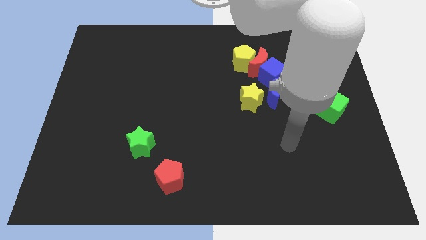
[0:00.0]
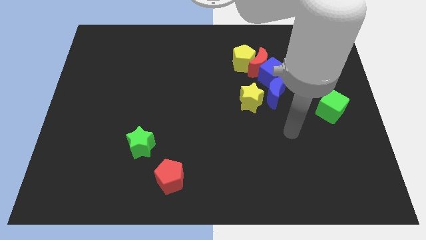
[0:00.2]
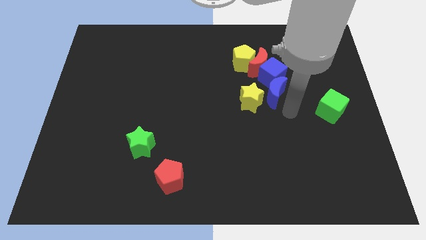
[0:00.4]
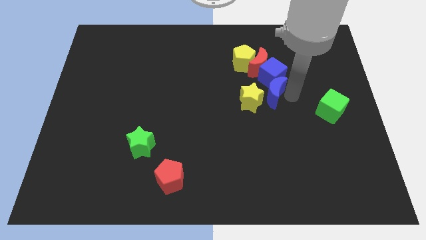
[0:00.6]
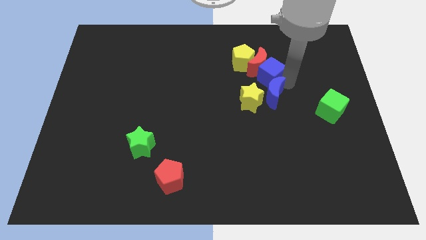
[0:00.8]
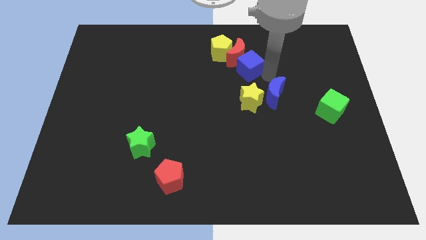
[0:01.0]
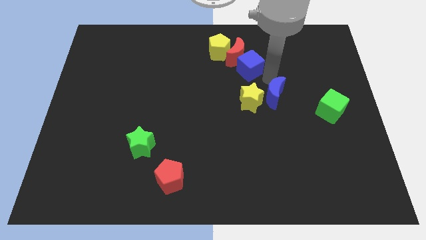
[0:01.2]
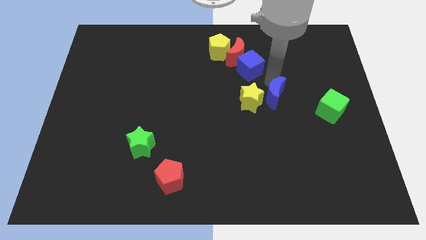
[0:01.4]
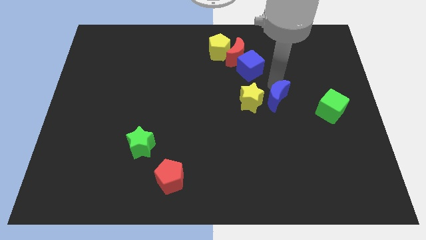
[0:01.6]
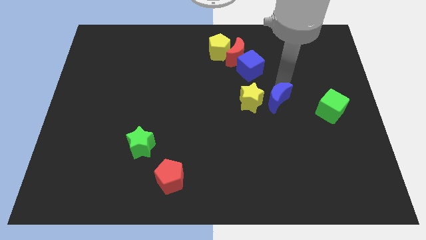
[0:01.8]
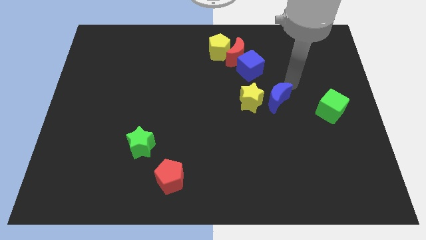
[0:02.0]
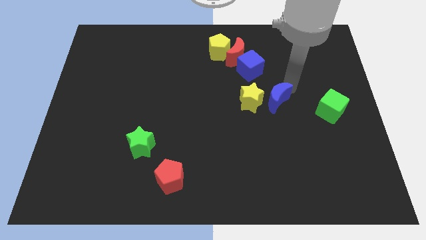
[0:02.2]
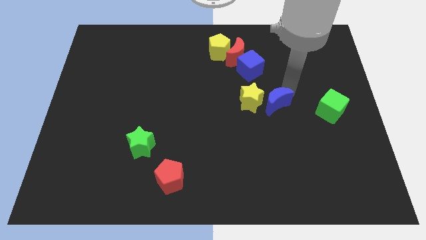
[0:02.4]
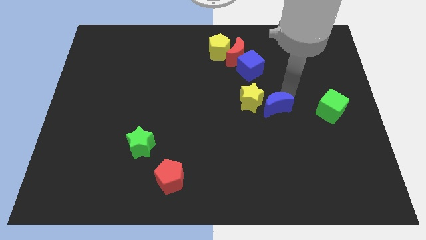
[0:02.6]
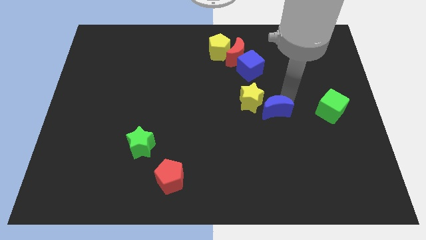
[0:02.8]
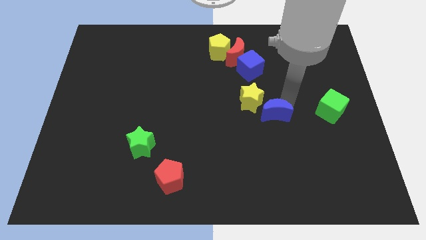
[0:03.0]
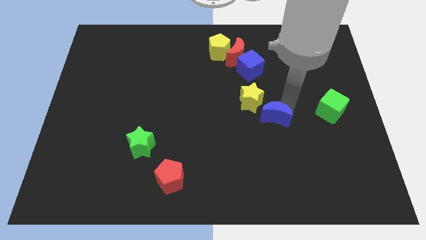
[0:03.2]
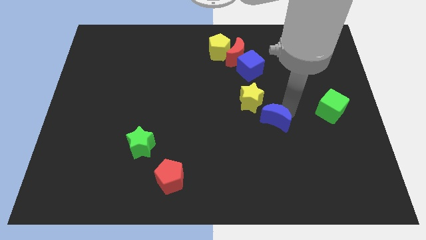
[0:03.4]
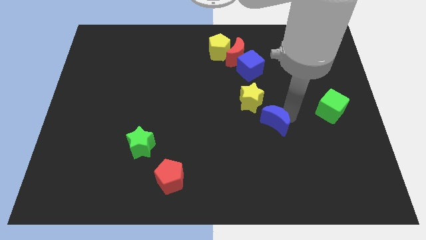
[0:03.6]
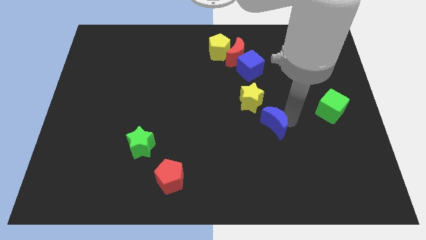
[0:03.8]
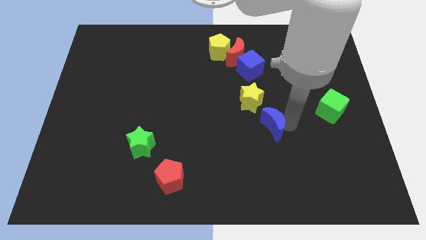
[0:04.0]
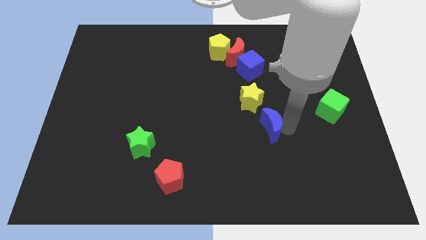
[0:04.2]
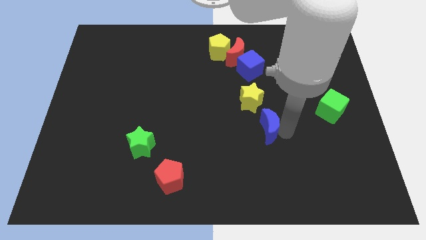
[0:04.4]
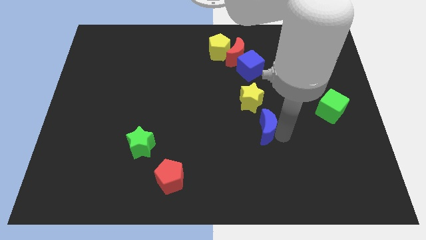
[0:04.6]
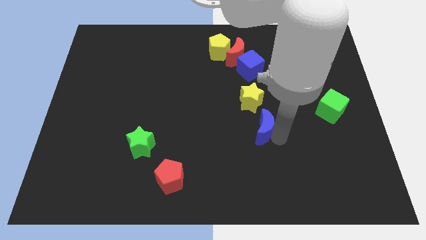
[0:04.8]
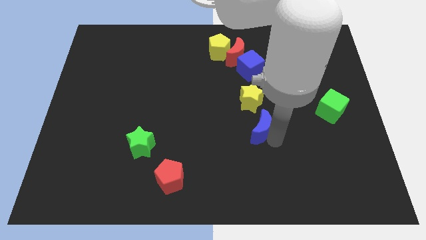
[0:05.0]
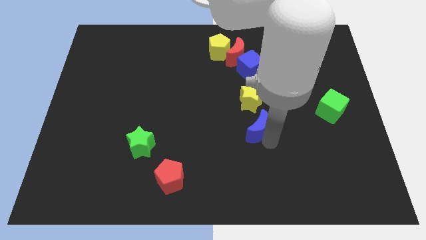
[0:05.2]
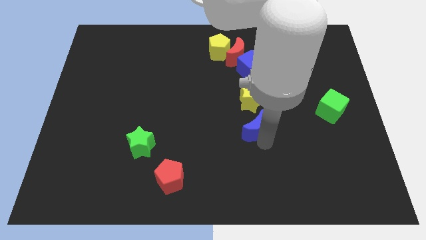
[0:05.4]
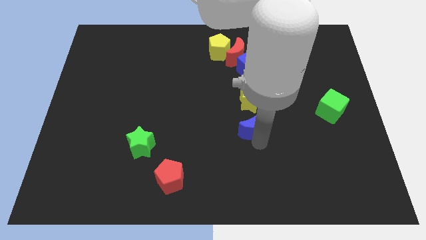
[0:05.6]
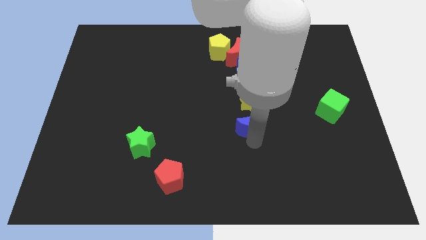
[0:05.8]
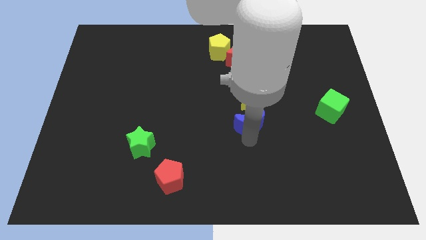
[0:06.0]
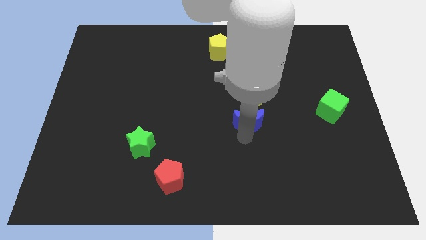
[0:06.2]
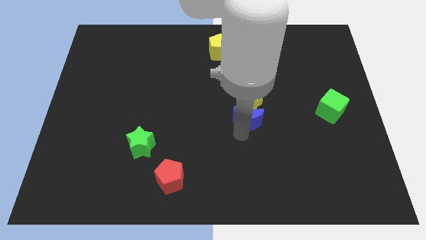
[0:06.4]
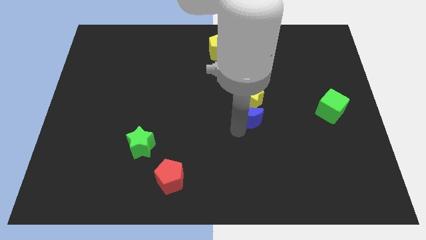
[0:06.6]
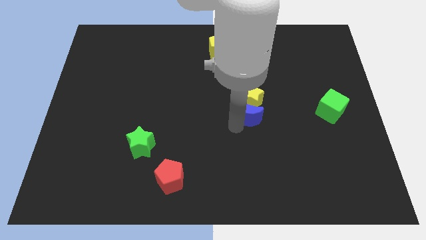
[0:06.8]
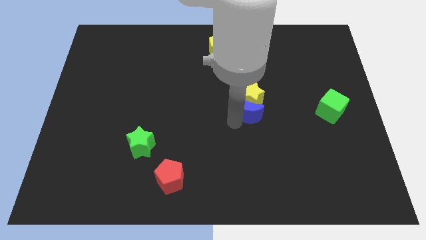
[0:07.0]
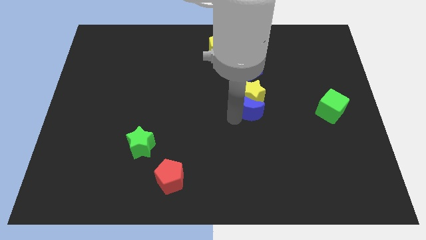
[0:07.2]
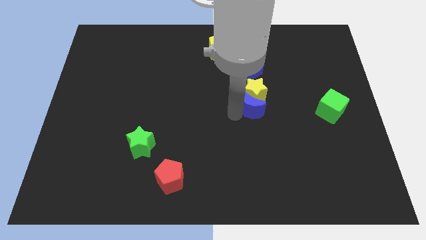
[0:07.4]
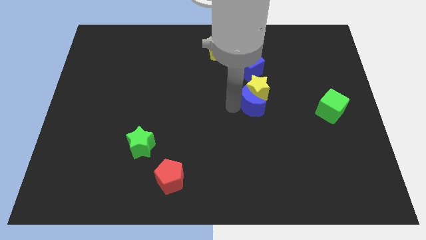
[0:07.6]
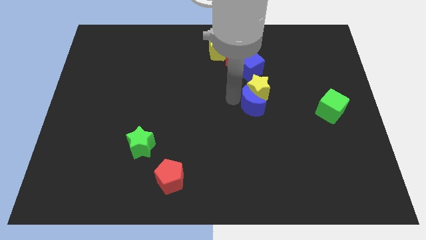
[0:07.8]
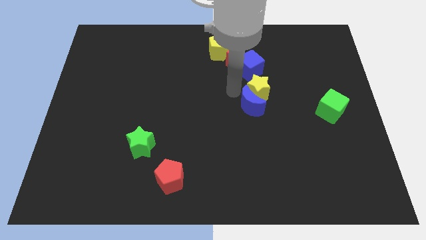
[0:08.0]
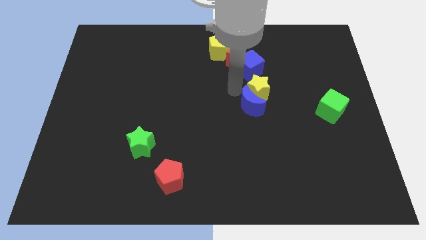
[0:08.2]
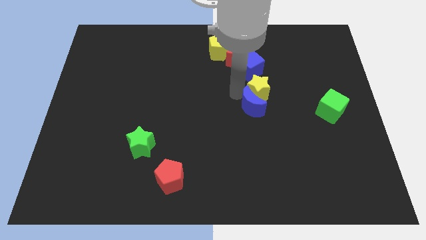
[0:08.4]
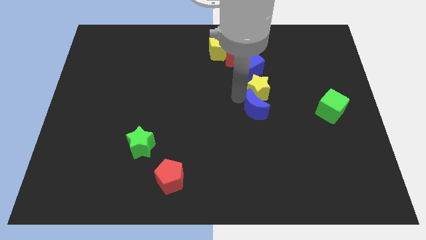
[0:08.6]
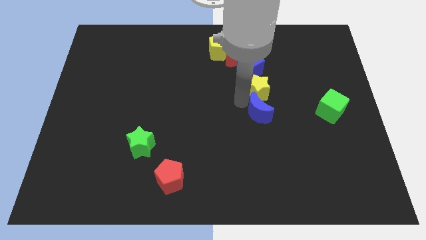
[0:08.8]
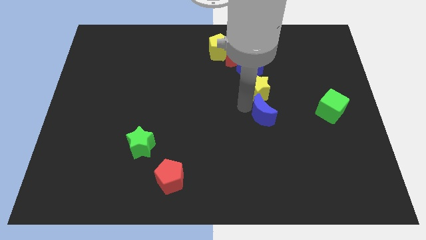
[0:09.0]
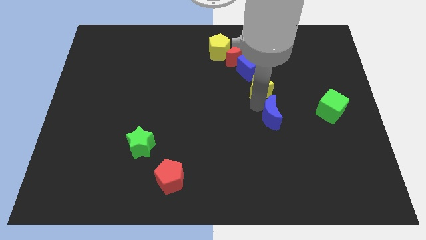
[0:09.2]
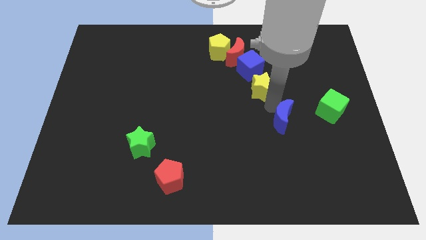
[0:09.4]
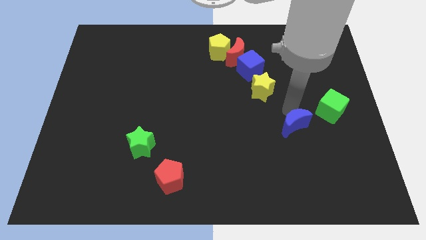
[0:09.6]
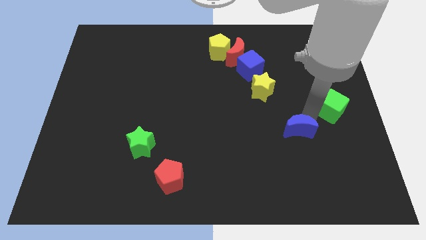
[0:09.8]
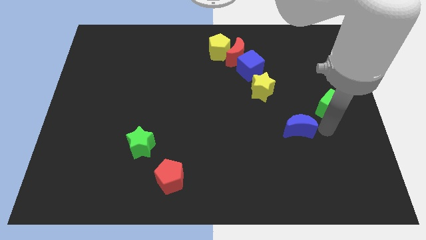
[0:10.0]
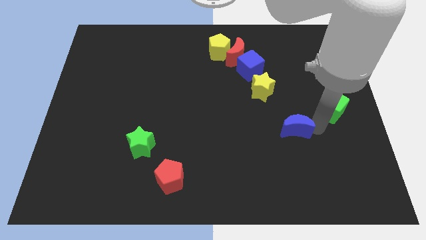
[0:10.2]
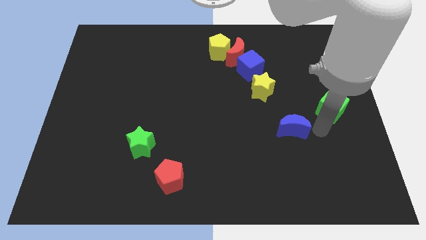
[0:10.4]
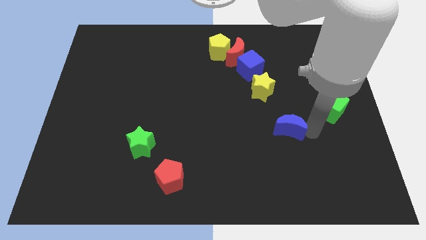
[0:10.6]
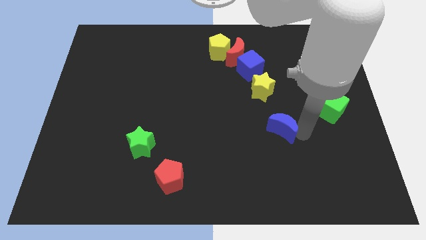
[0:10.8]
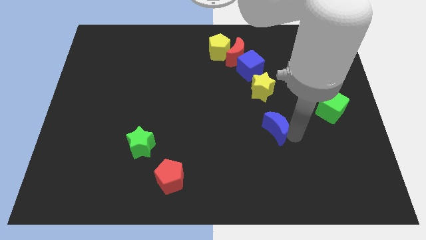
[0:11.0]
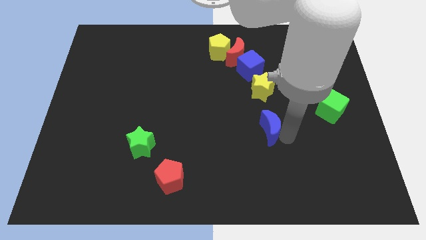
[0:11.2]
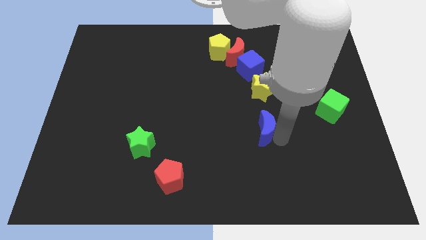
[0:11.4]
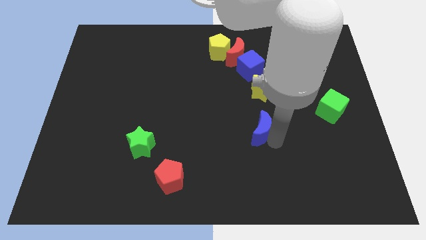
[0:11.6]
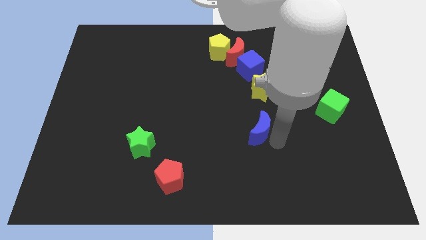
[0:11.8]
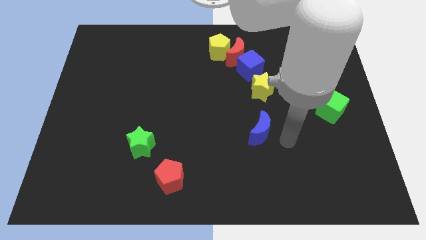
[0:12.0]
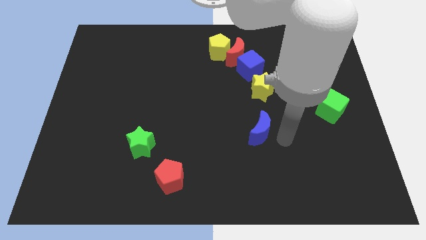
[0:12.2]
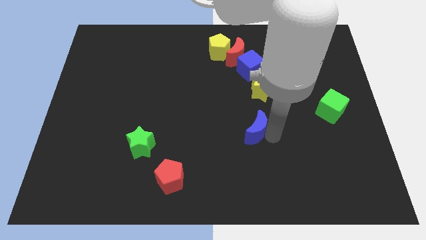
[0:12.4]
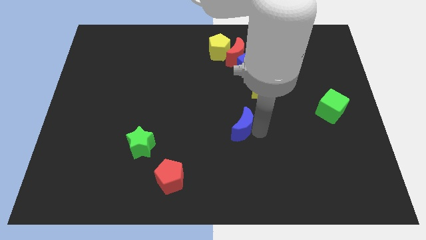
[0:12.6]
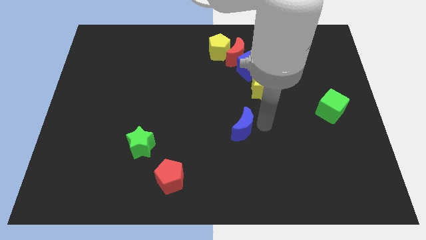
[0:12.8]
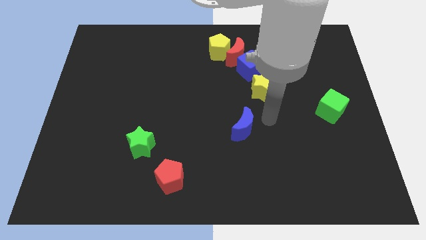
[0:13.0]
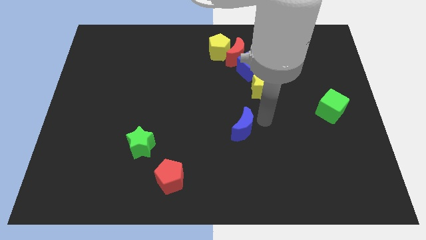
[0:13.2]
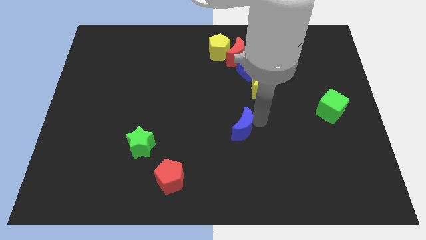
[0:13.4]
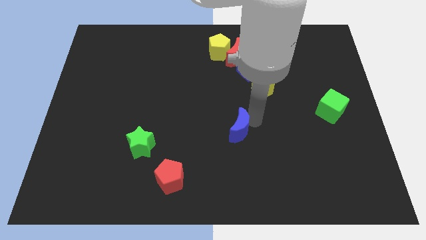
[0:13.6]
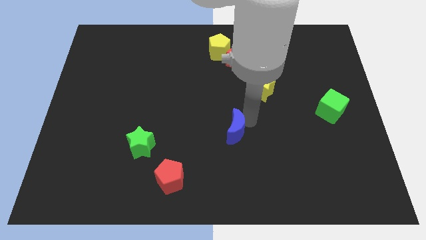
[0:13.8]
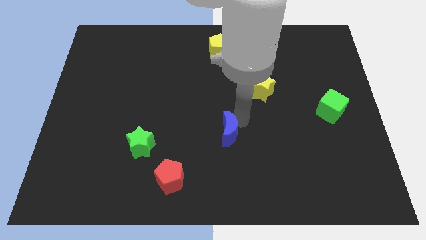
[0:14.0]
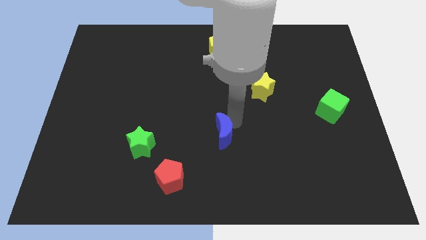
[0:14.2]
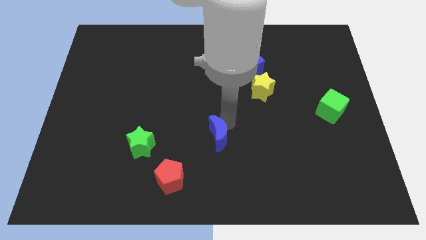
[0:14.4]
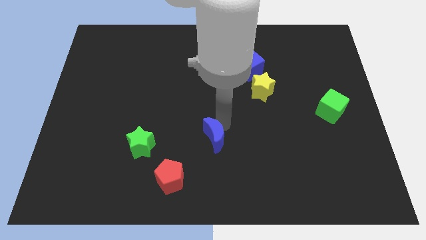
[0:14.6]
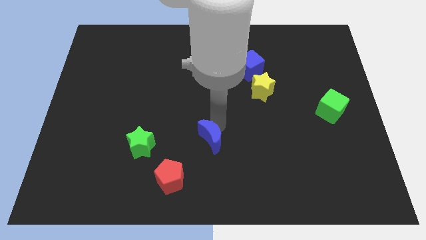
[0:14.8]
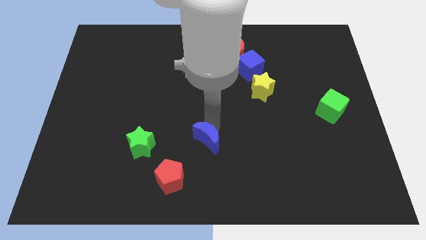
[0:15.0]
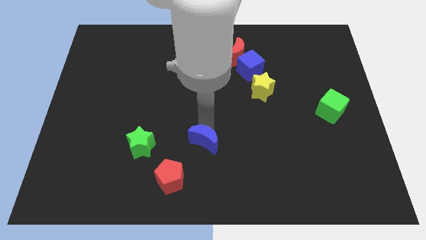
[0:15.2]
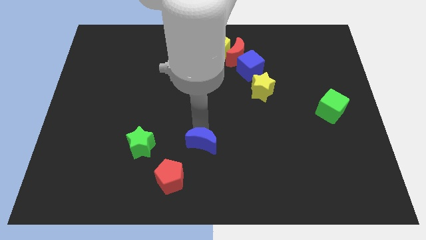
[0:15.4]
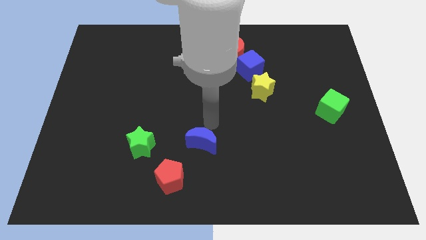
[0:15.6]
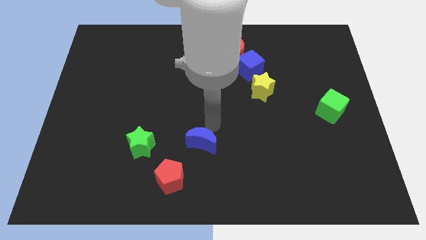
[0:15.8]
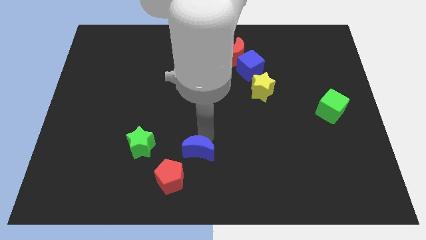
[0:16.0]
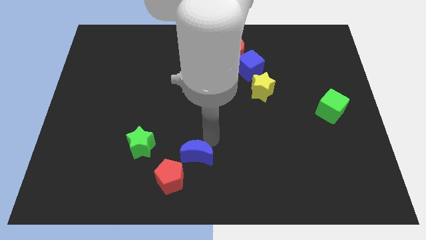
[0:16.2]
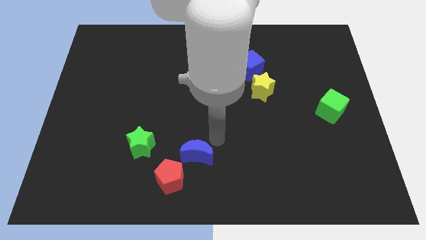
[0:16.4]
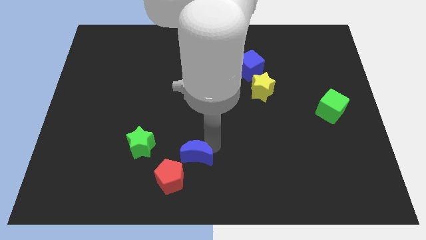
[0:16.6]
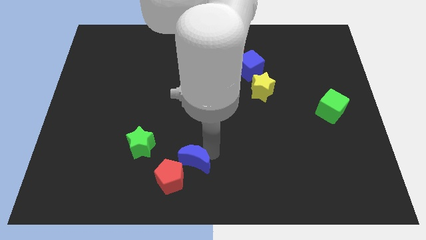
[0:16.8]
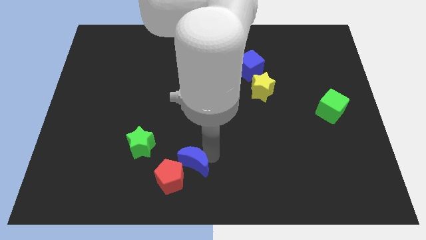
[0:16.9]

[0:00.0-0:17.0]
move the blue moon close to the red pentagon
